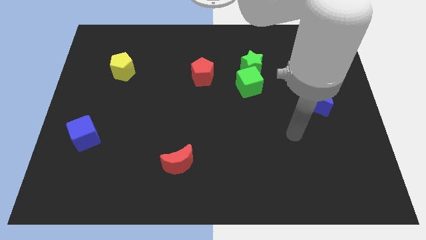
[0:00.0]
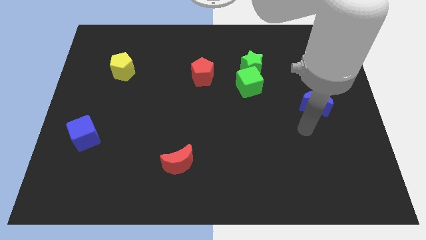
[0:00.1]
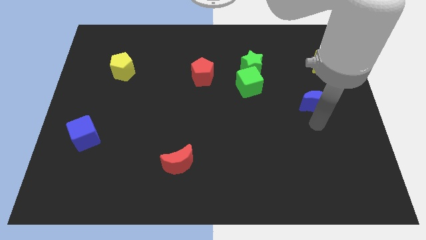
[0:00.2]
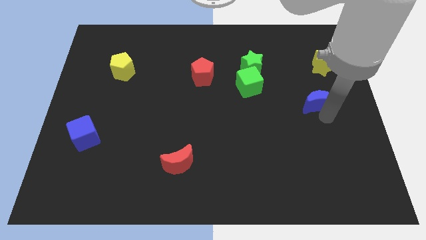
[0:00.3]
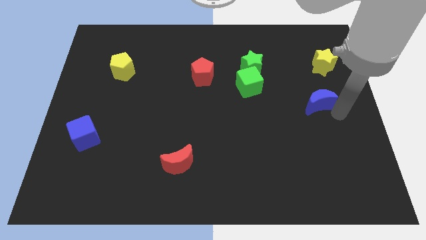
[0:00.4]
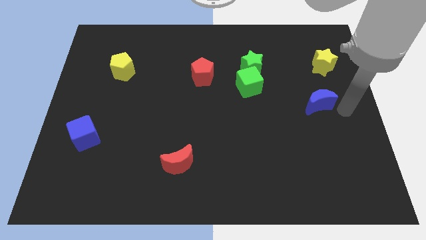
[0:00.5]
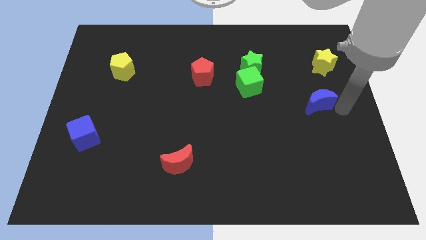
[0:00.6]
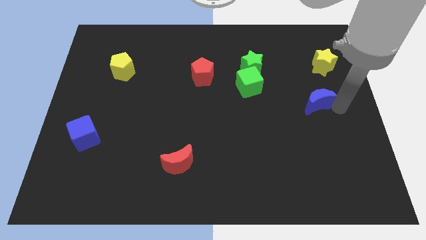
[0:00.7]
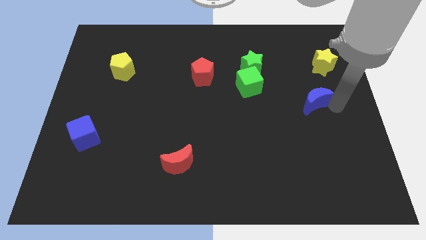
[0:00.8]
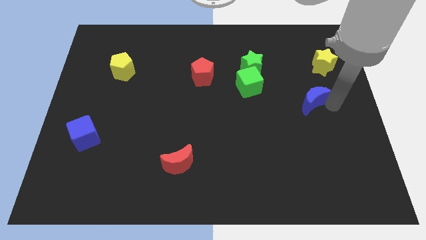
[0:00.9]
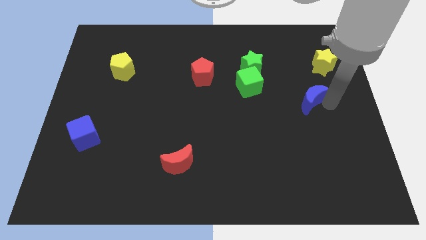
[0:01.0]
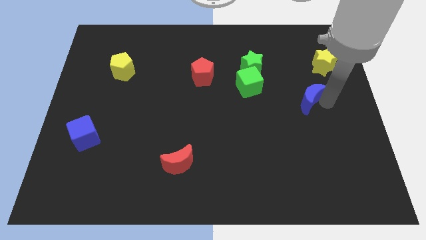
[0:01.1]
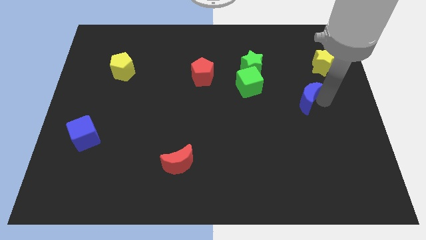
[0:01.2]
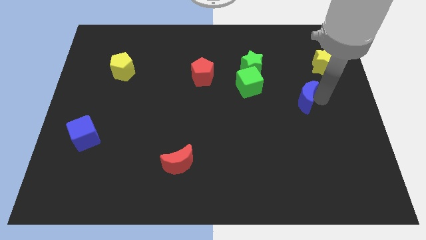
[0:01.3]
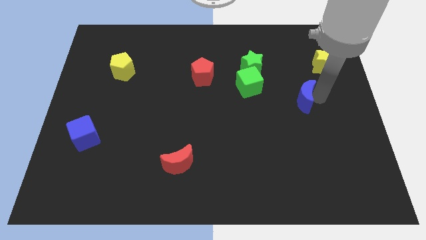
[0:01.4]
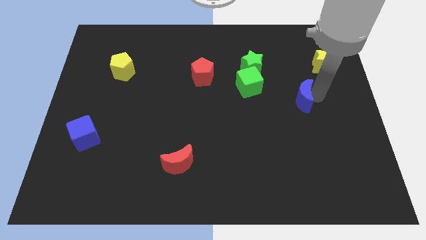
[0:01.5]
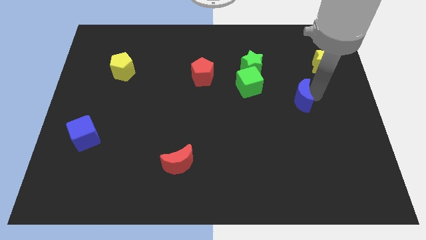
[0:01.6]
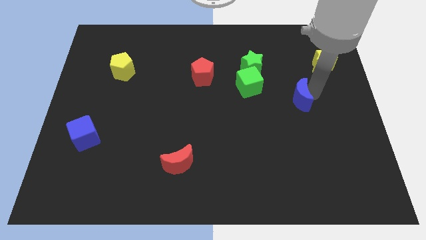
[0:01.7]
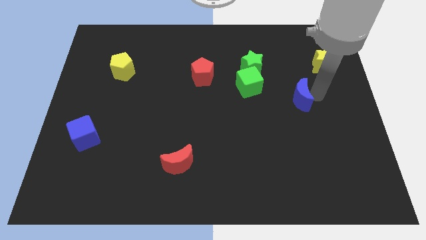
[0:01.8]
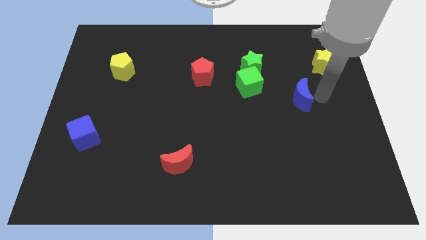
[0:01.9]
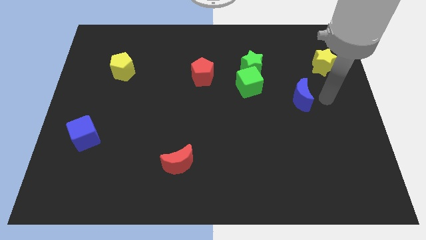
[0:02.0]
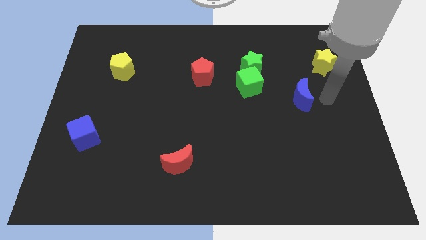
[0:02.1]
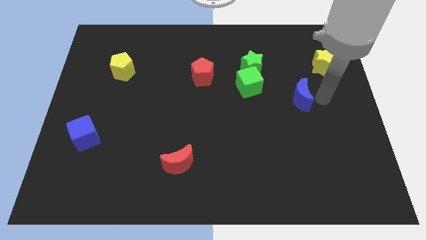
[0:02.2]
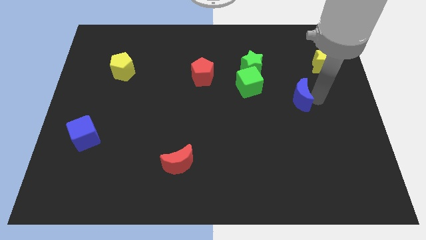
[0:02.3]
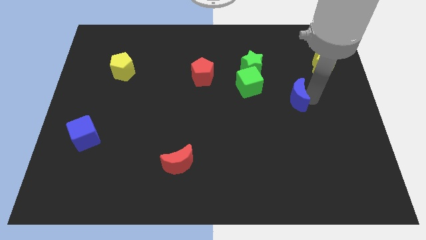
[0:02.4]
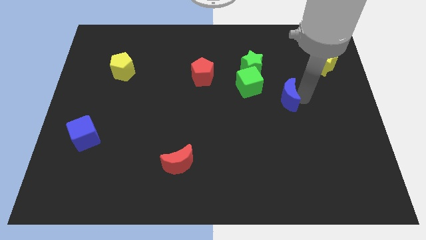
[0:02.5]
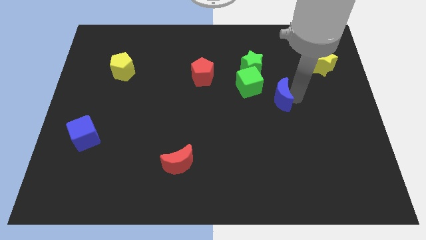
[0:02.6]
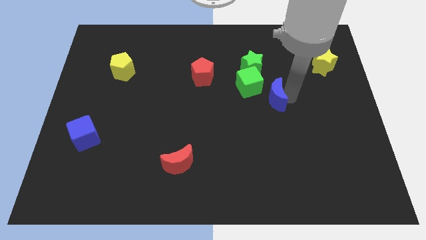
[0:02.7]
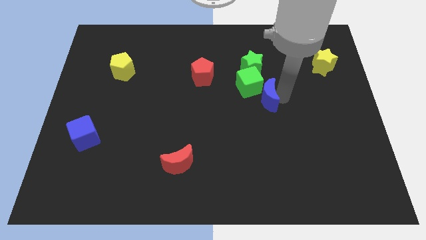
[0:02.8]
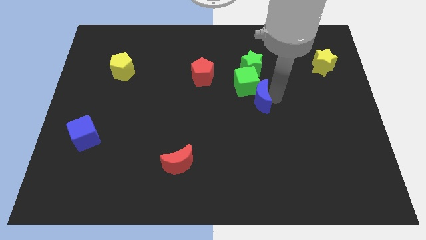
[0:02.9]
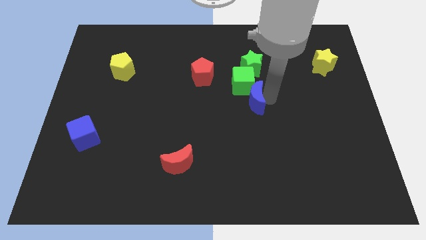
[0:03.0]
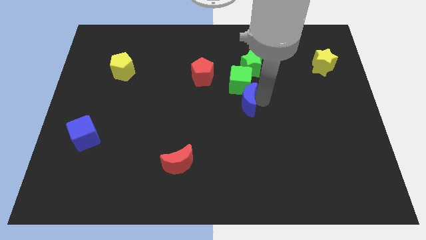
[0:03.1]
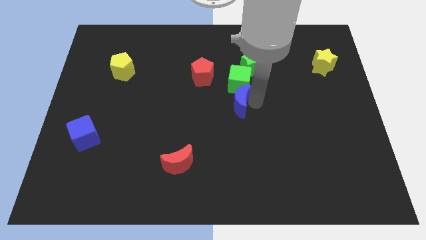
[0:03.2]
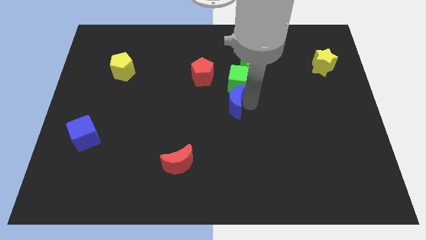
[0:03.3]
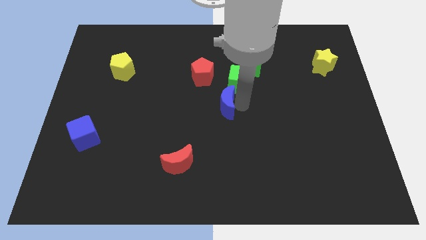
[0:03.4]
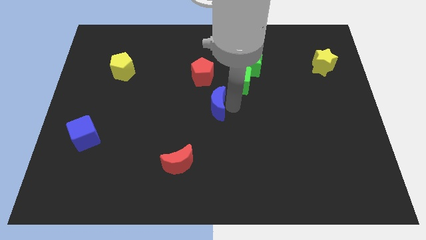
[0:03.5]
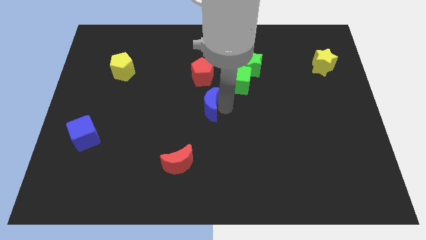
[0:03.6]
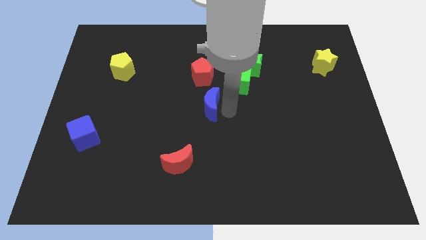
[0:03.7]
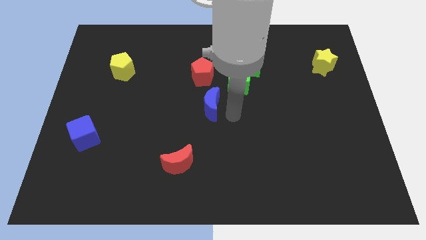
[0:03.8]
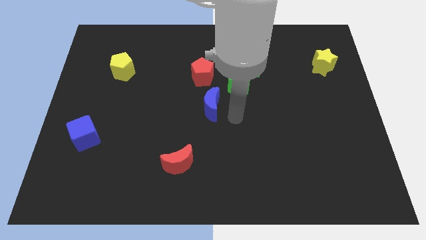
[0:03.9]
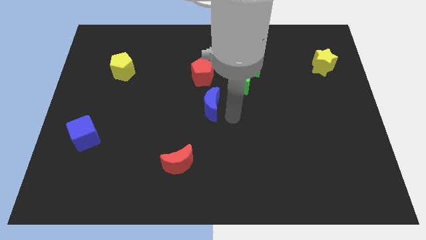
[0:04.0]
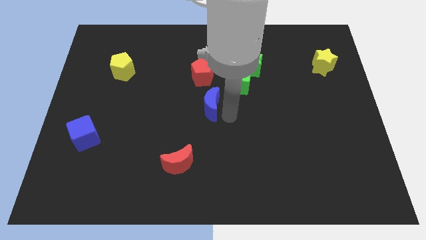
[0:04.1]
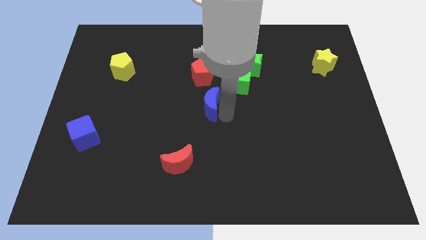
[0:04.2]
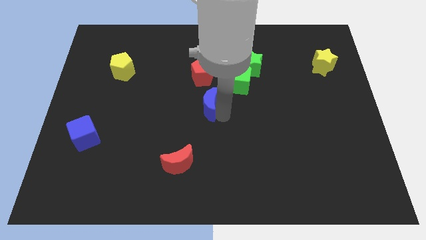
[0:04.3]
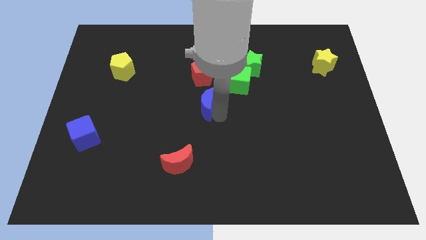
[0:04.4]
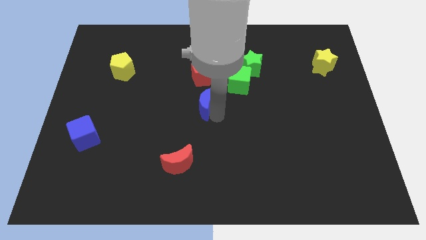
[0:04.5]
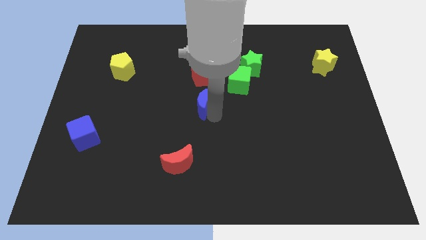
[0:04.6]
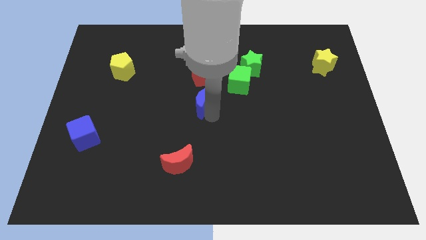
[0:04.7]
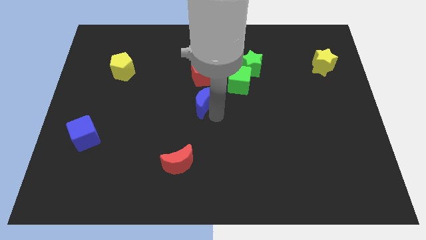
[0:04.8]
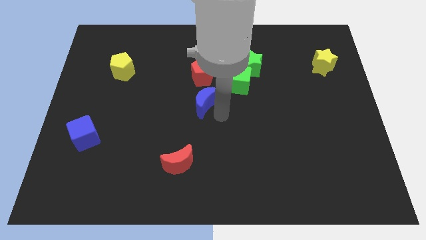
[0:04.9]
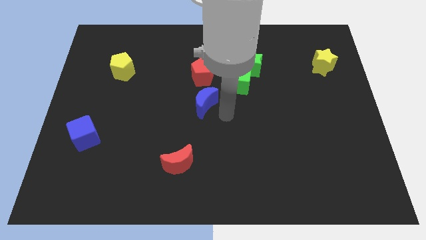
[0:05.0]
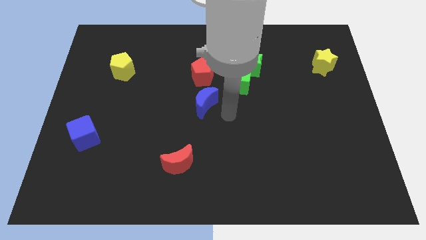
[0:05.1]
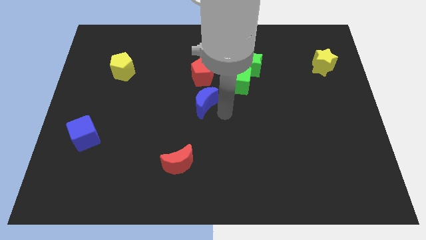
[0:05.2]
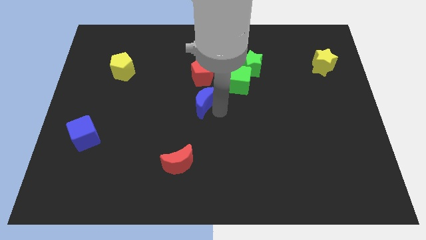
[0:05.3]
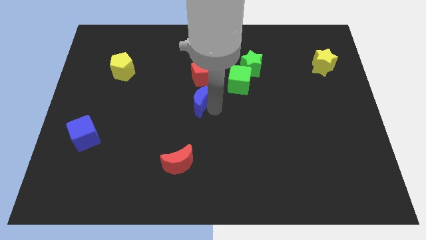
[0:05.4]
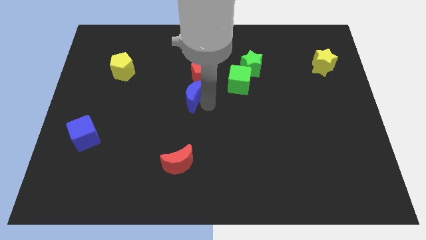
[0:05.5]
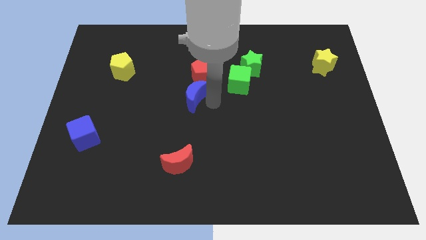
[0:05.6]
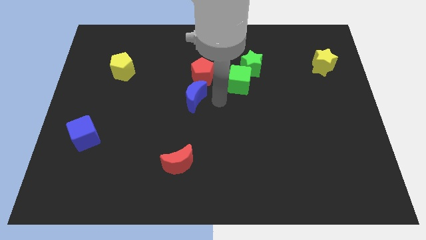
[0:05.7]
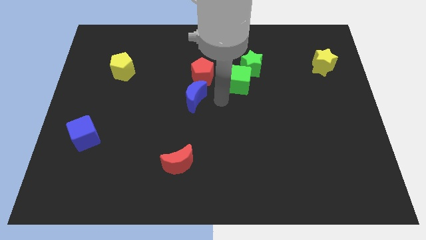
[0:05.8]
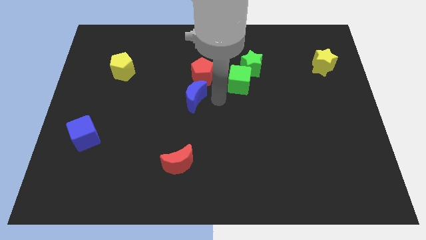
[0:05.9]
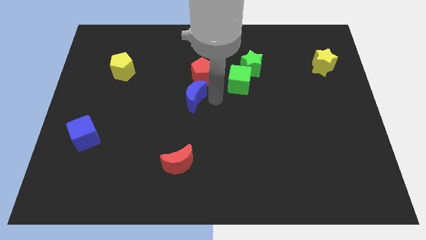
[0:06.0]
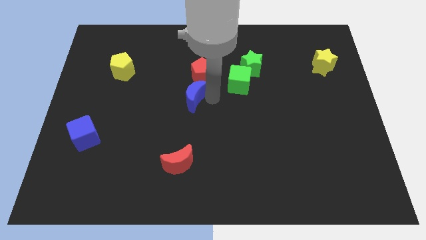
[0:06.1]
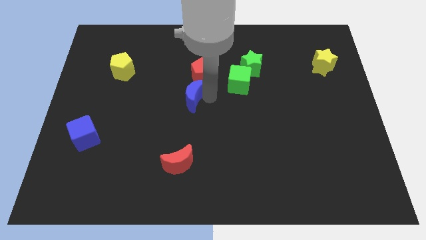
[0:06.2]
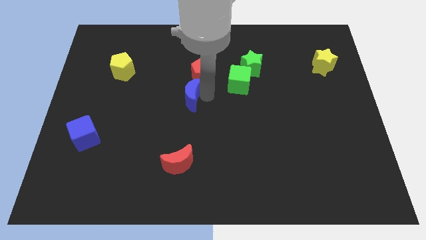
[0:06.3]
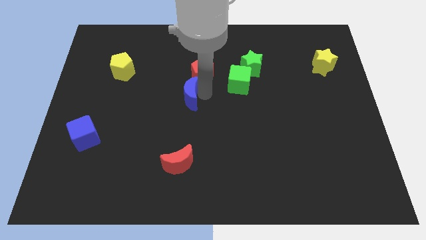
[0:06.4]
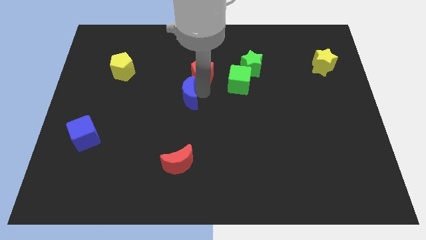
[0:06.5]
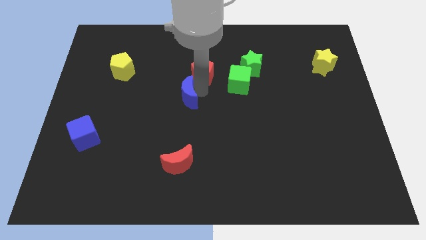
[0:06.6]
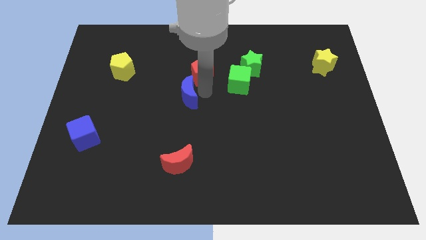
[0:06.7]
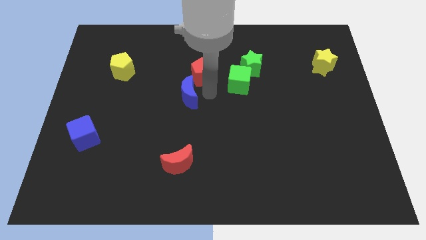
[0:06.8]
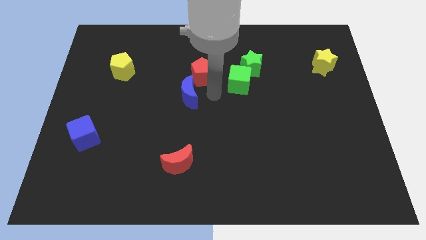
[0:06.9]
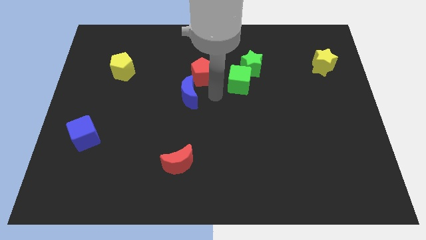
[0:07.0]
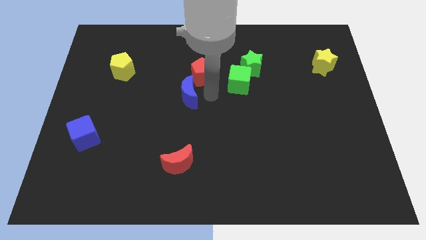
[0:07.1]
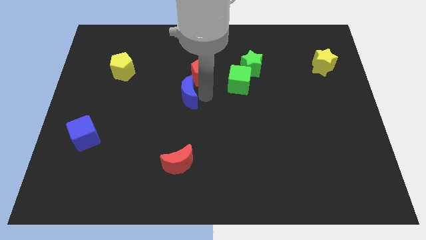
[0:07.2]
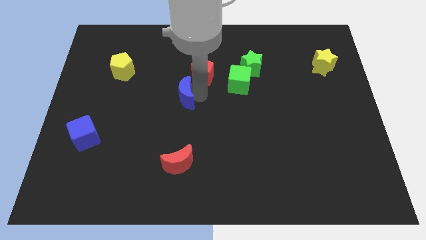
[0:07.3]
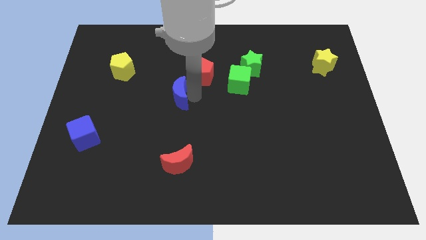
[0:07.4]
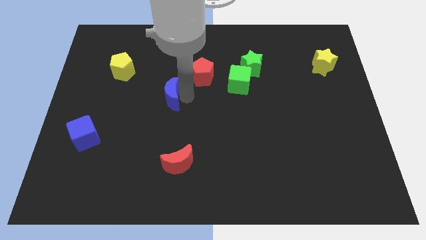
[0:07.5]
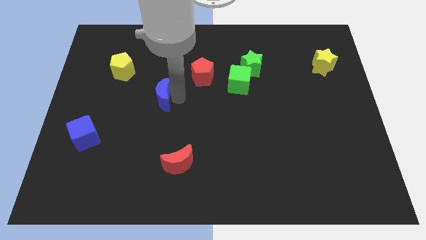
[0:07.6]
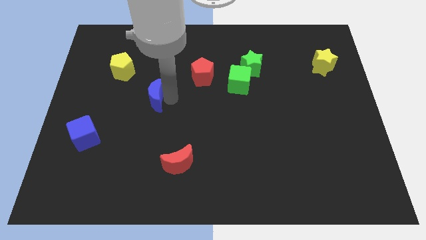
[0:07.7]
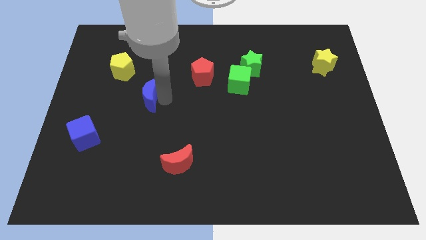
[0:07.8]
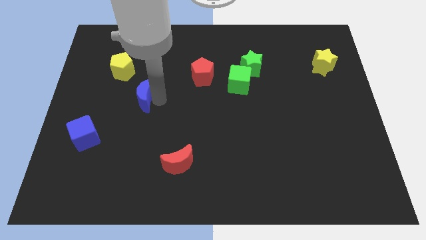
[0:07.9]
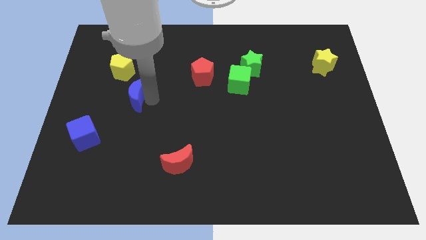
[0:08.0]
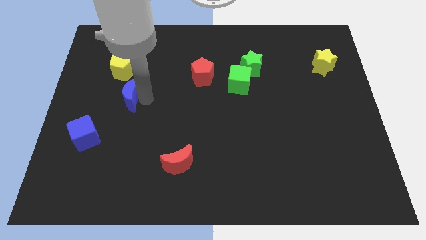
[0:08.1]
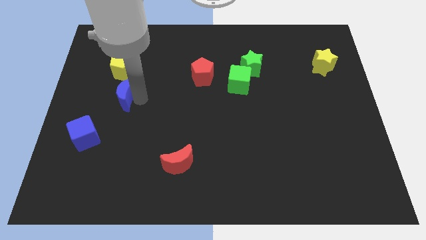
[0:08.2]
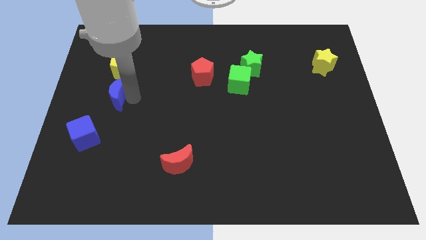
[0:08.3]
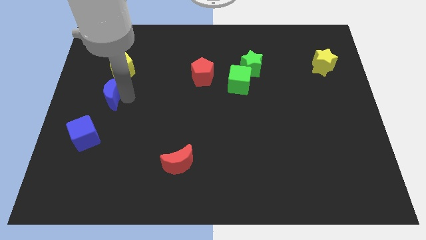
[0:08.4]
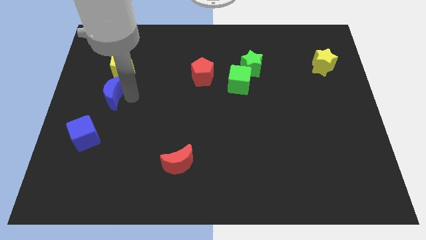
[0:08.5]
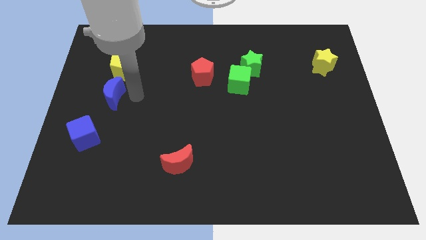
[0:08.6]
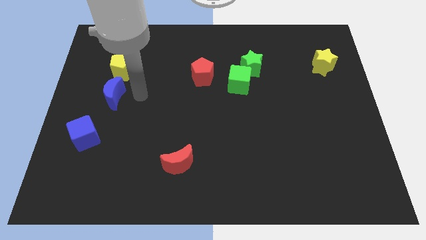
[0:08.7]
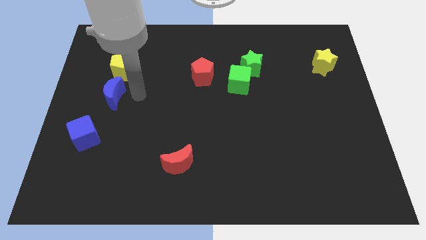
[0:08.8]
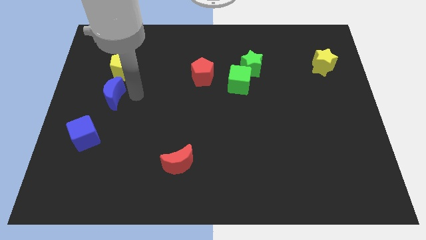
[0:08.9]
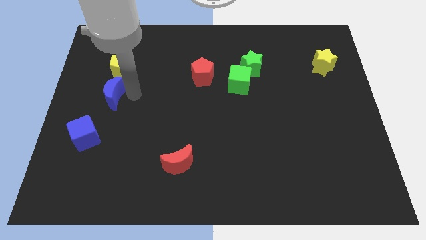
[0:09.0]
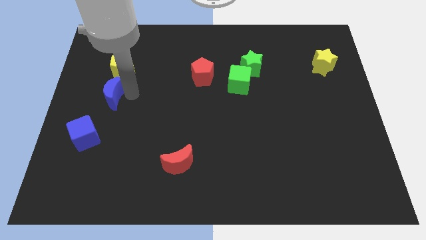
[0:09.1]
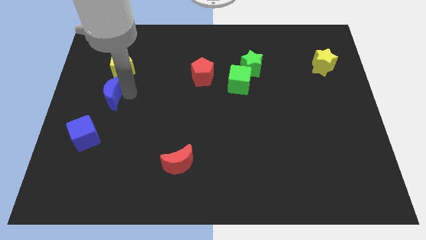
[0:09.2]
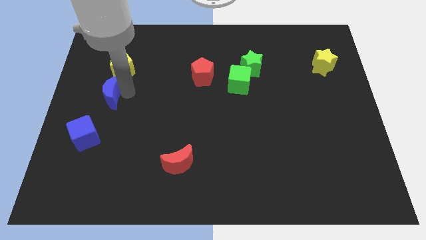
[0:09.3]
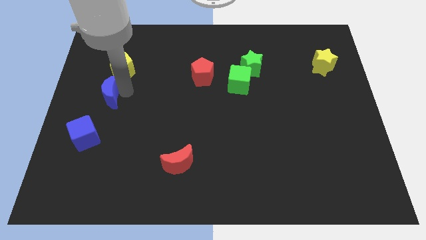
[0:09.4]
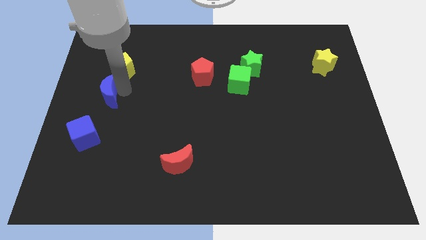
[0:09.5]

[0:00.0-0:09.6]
push the blue moon to the center left
